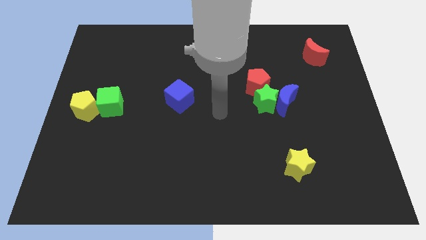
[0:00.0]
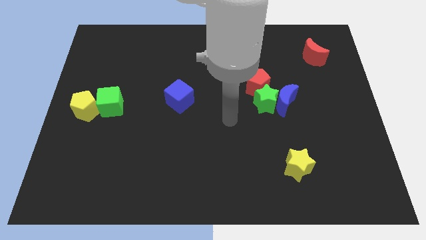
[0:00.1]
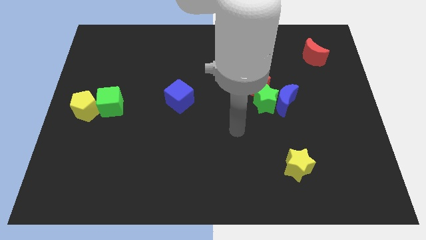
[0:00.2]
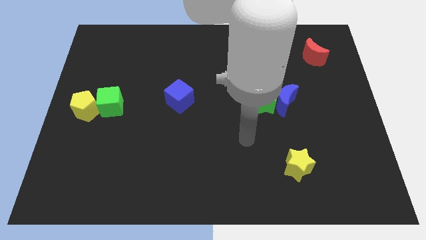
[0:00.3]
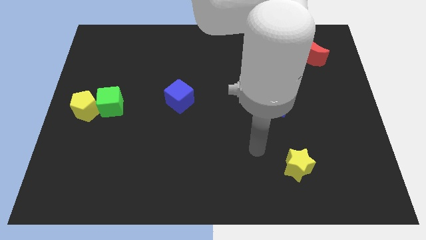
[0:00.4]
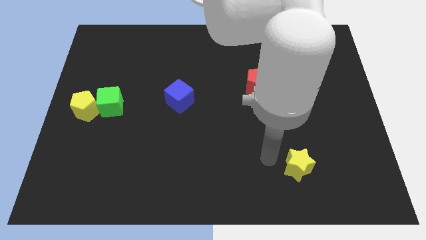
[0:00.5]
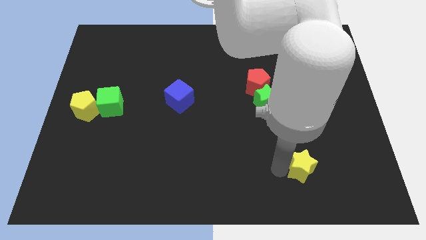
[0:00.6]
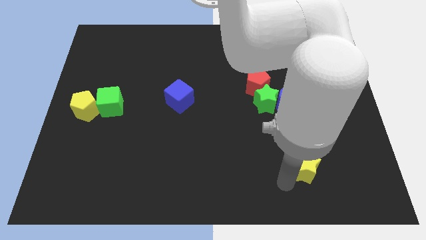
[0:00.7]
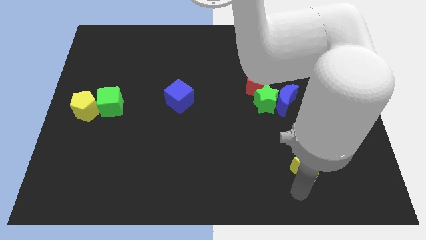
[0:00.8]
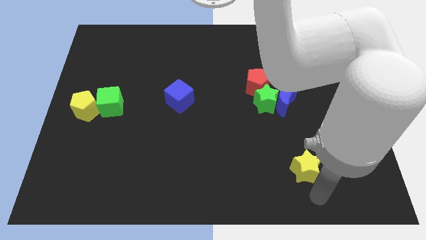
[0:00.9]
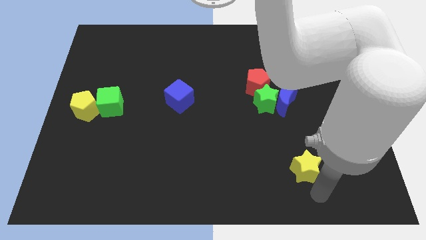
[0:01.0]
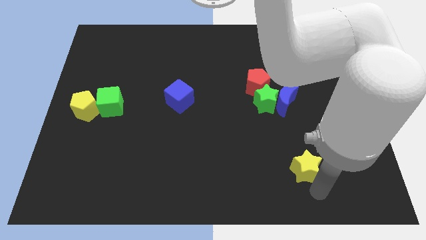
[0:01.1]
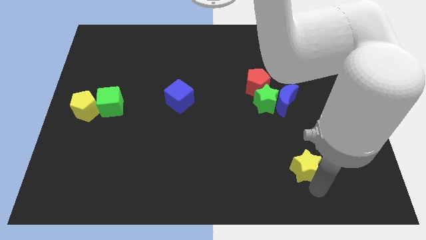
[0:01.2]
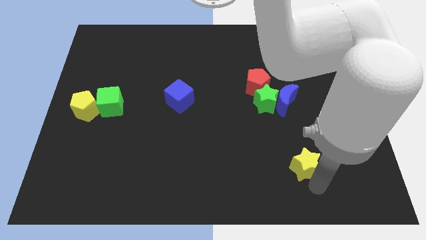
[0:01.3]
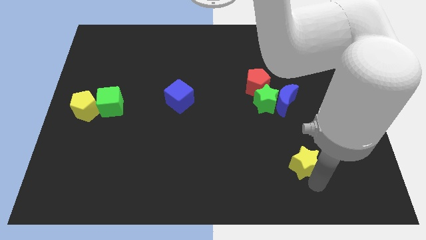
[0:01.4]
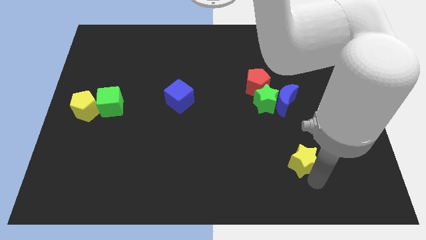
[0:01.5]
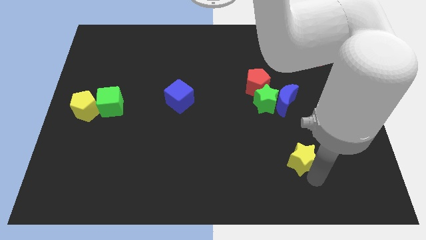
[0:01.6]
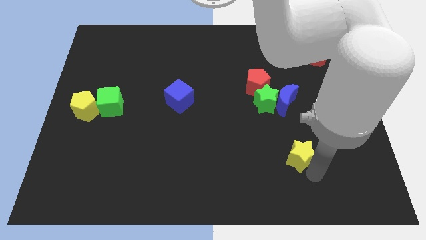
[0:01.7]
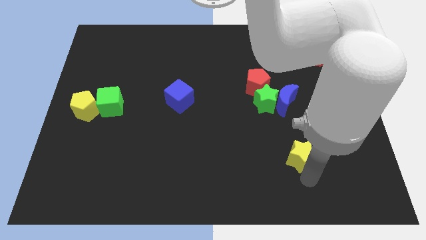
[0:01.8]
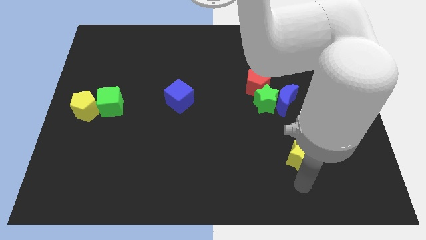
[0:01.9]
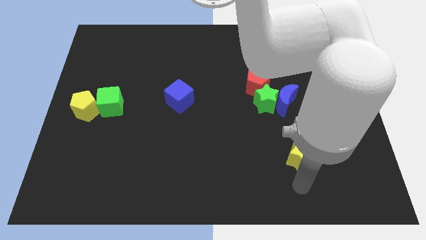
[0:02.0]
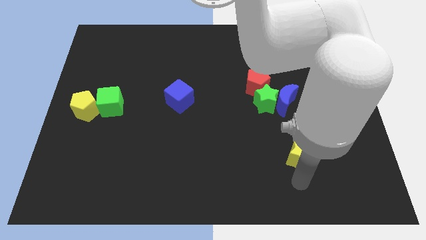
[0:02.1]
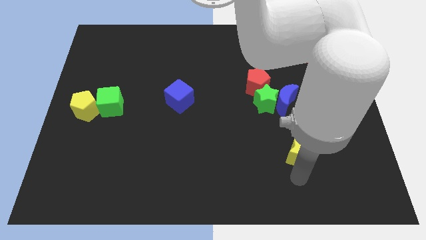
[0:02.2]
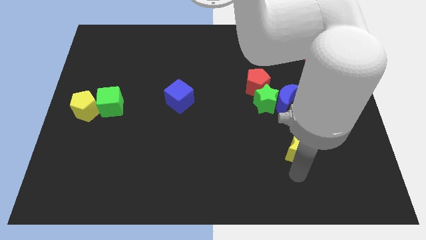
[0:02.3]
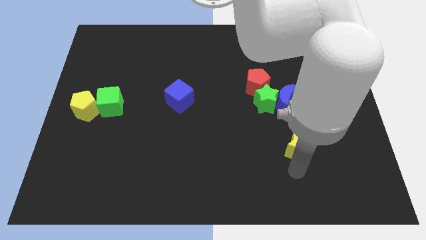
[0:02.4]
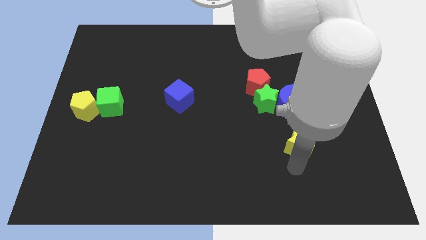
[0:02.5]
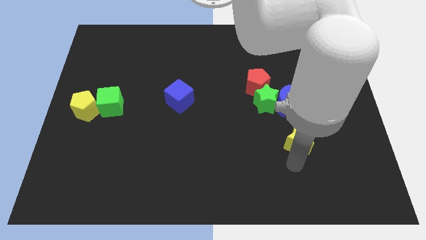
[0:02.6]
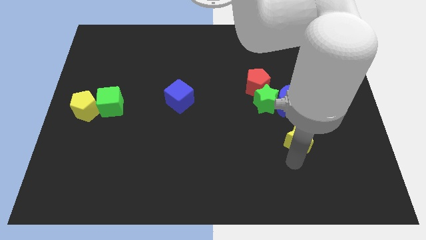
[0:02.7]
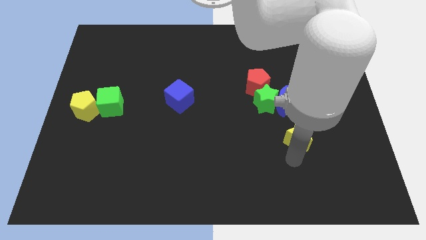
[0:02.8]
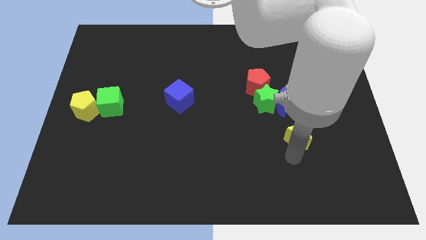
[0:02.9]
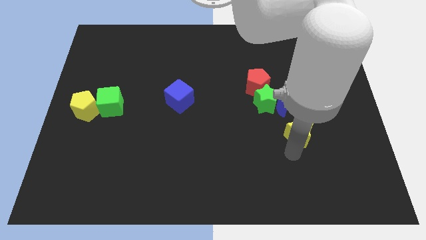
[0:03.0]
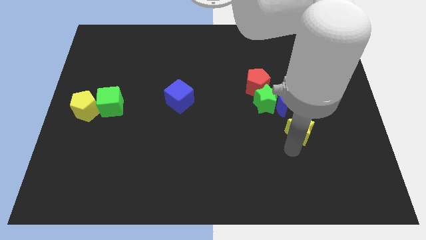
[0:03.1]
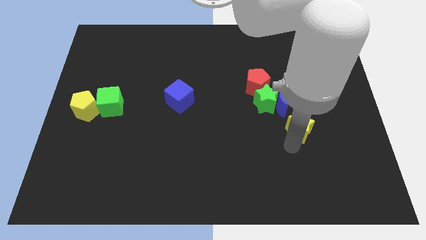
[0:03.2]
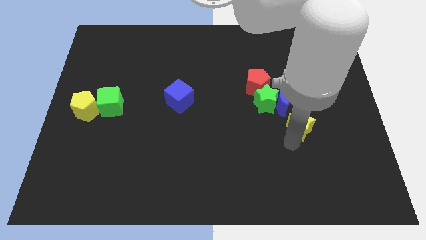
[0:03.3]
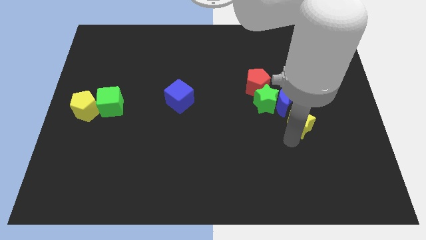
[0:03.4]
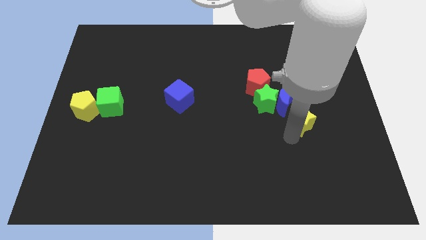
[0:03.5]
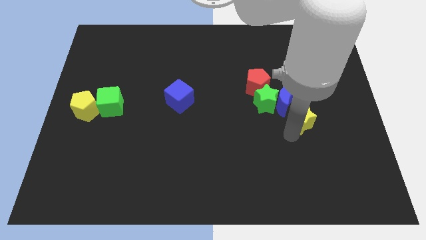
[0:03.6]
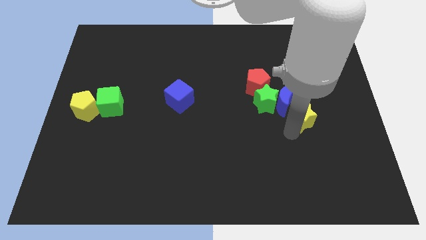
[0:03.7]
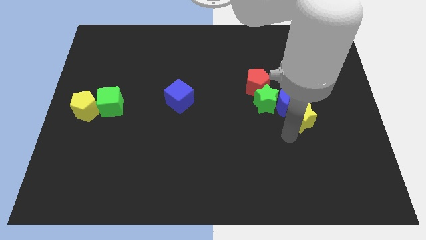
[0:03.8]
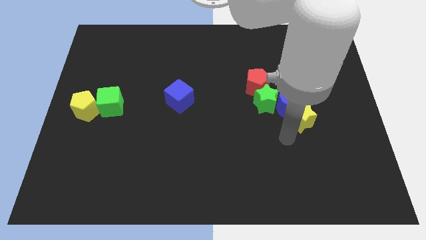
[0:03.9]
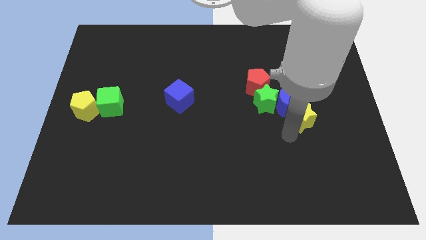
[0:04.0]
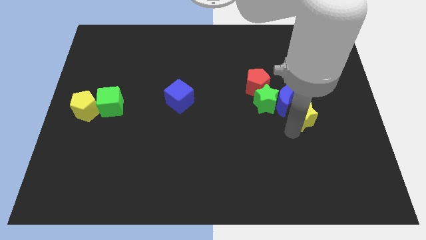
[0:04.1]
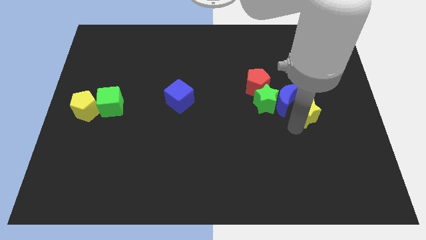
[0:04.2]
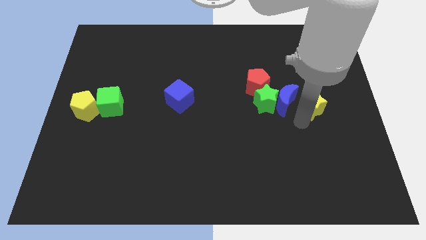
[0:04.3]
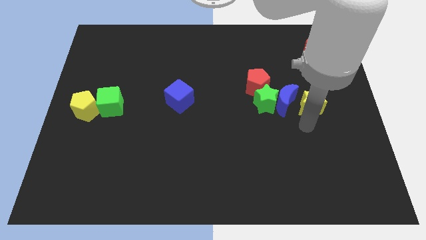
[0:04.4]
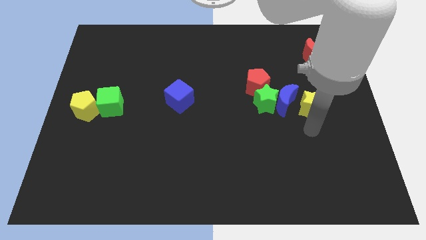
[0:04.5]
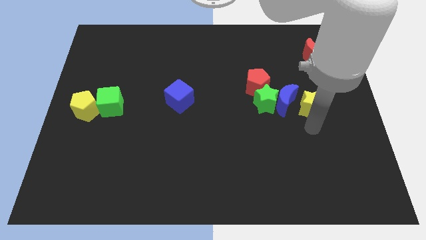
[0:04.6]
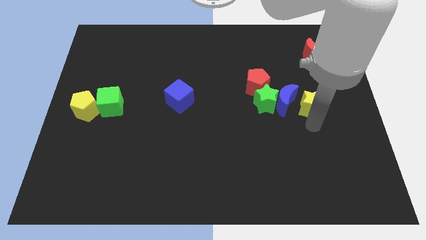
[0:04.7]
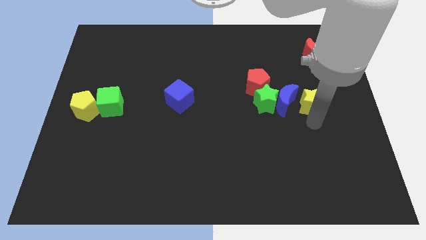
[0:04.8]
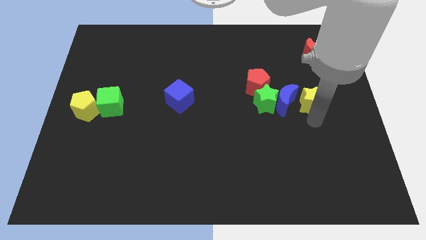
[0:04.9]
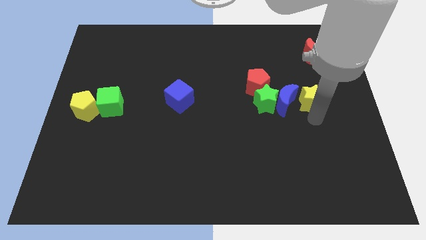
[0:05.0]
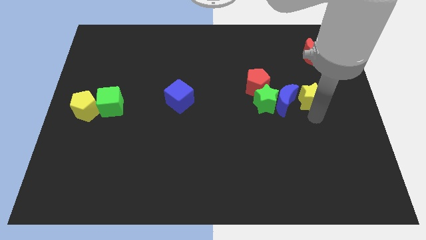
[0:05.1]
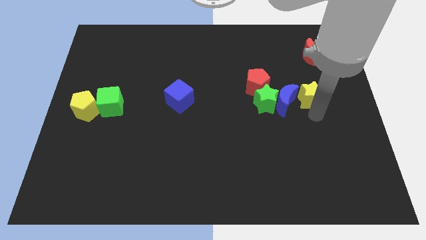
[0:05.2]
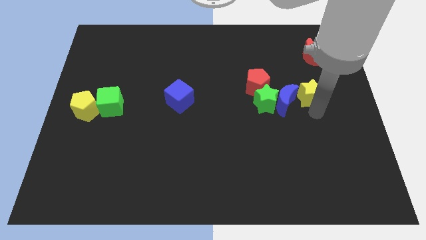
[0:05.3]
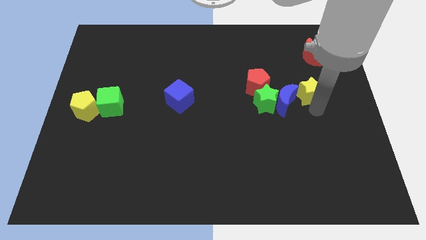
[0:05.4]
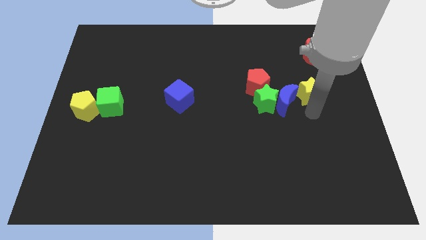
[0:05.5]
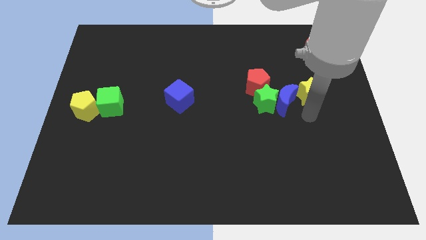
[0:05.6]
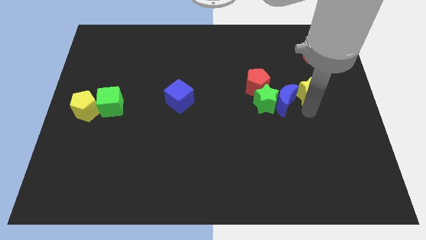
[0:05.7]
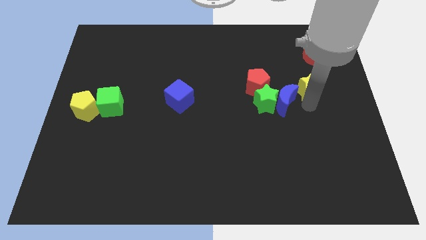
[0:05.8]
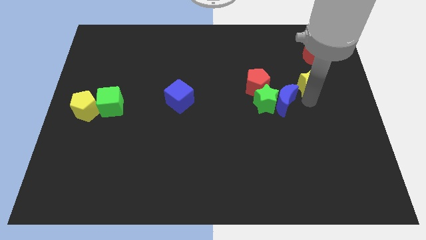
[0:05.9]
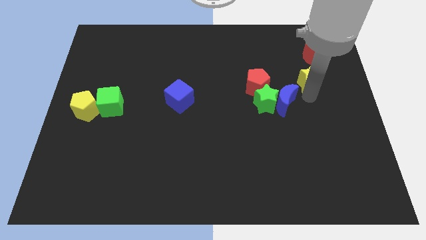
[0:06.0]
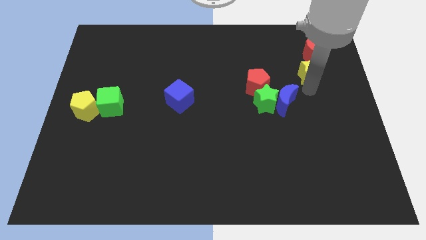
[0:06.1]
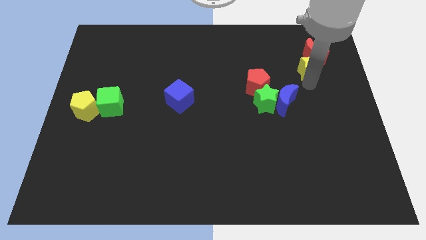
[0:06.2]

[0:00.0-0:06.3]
put the yellow star close to the red moon
